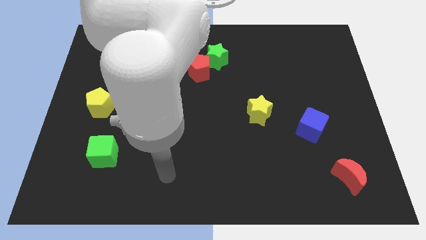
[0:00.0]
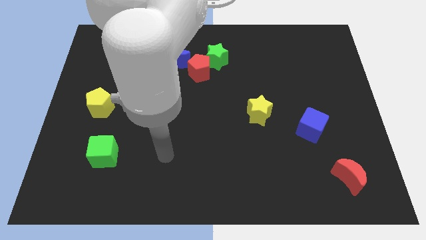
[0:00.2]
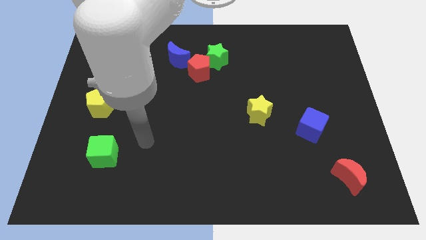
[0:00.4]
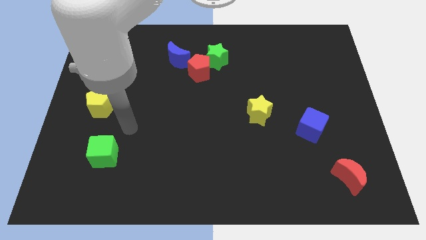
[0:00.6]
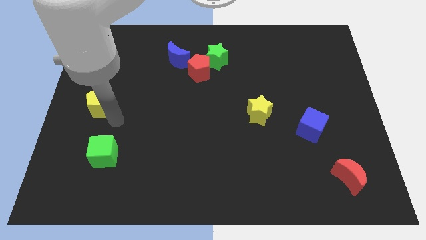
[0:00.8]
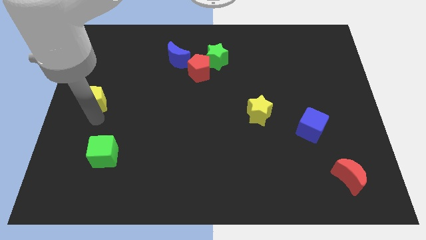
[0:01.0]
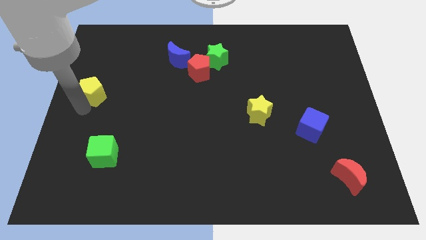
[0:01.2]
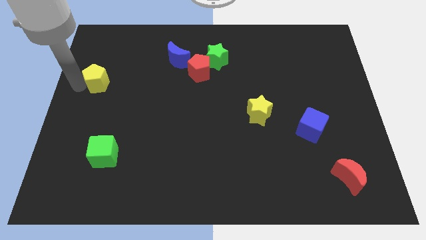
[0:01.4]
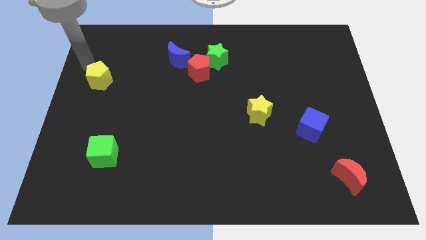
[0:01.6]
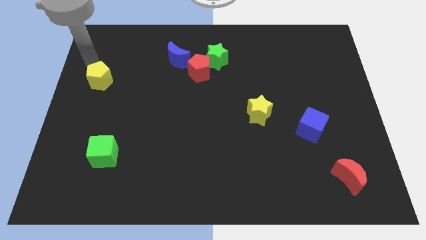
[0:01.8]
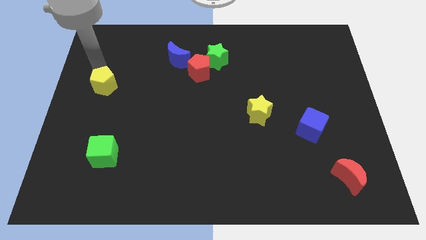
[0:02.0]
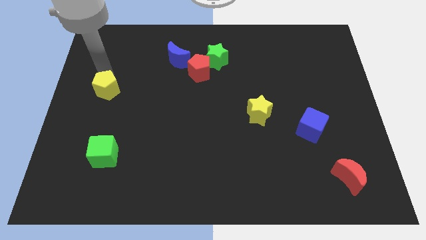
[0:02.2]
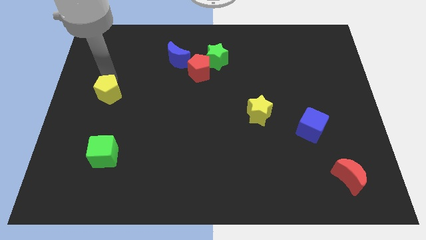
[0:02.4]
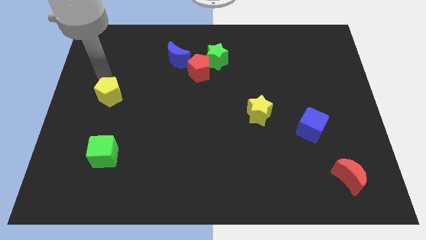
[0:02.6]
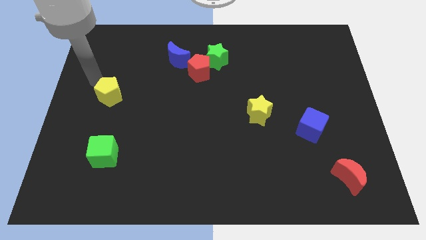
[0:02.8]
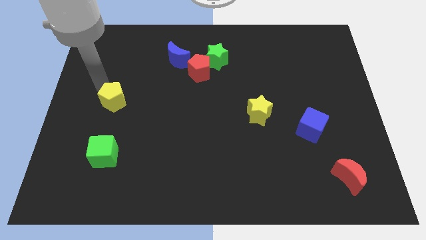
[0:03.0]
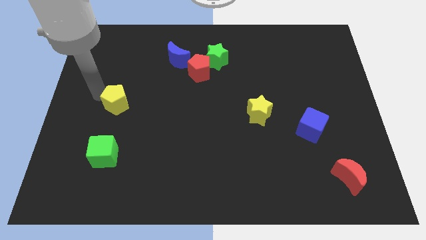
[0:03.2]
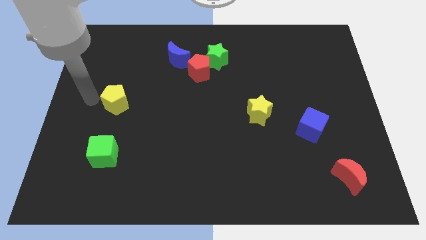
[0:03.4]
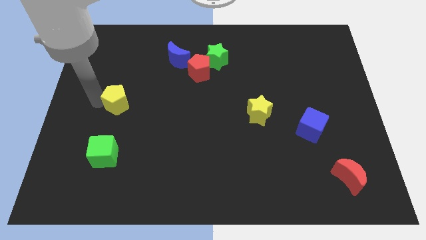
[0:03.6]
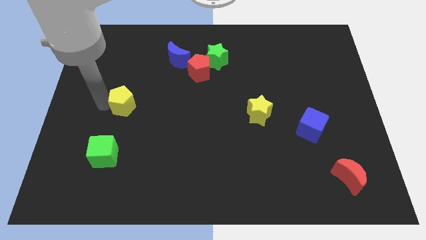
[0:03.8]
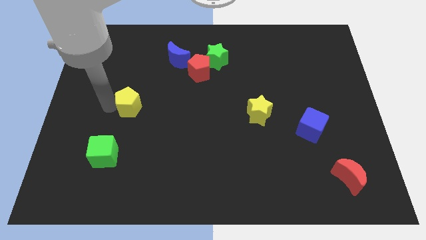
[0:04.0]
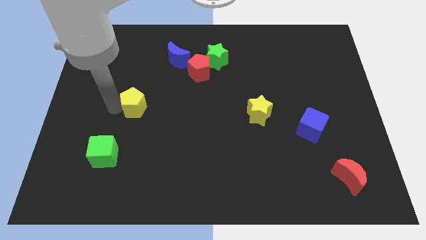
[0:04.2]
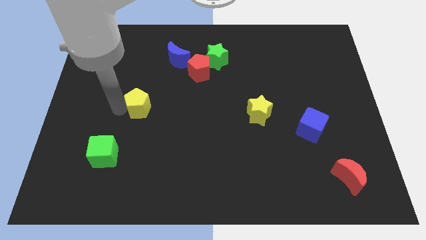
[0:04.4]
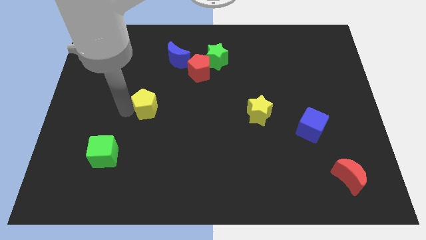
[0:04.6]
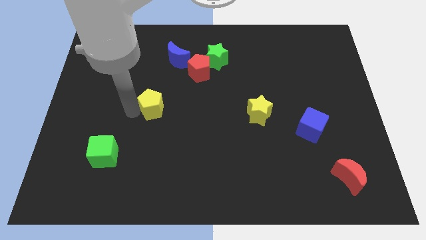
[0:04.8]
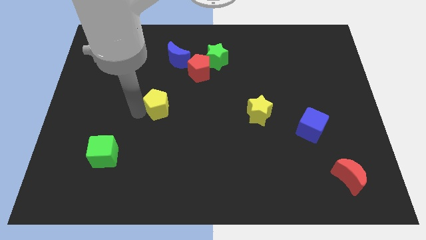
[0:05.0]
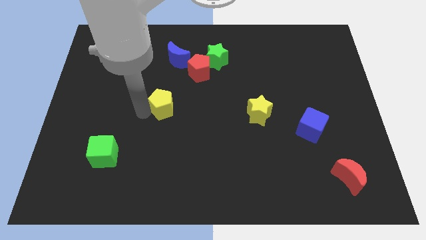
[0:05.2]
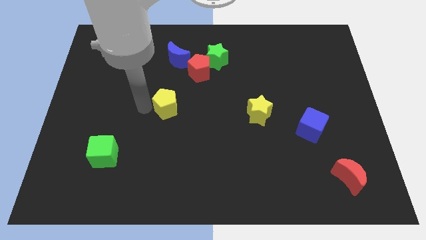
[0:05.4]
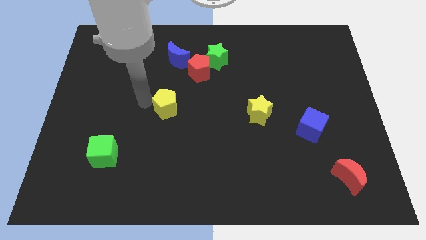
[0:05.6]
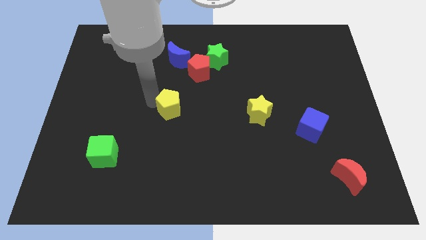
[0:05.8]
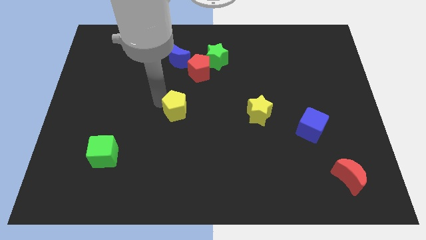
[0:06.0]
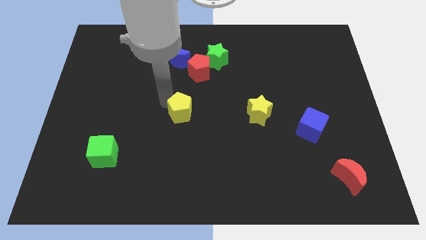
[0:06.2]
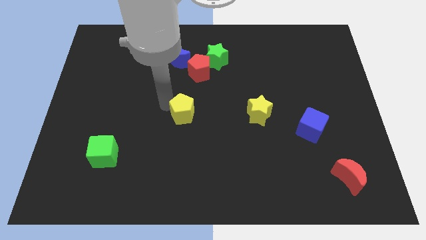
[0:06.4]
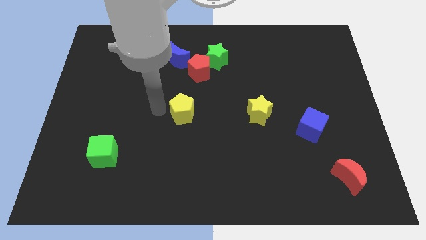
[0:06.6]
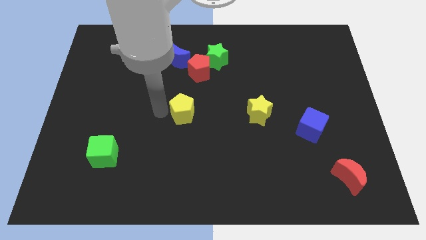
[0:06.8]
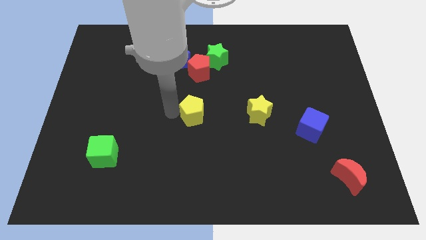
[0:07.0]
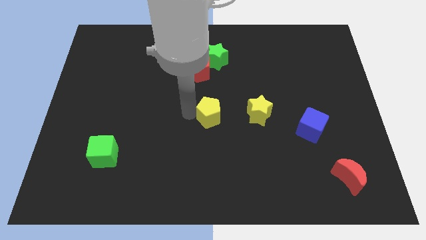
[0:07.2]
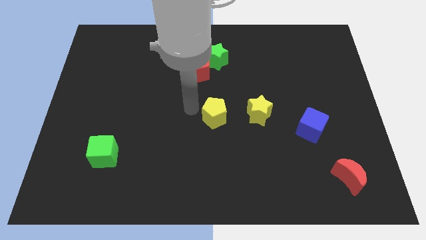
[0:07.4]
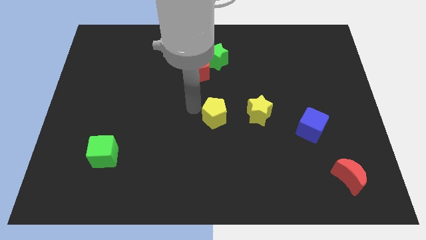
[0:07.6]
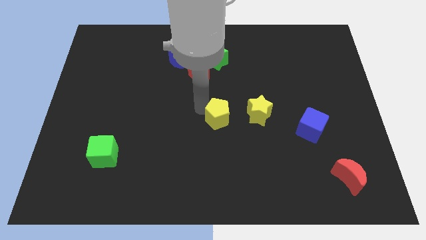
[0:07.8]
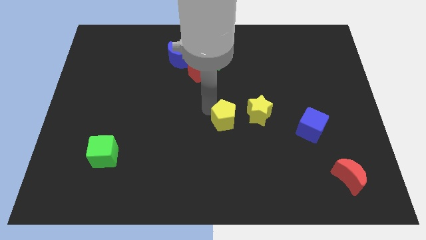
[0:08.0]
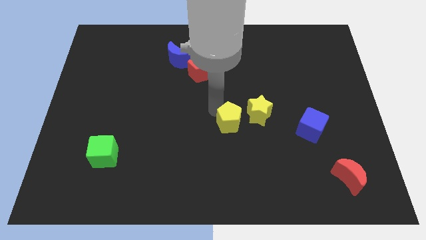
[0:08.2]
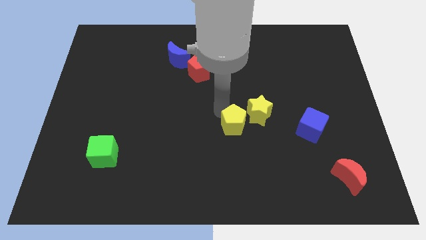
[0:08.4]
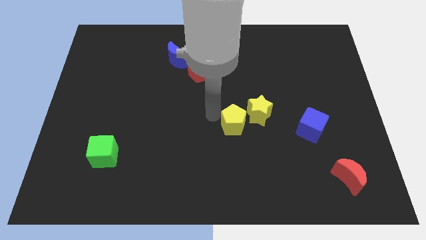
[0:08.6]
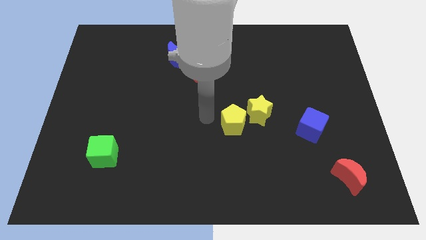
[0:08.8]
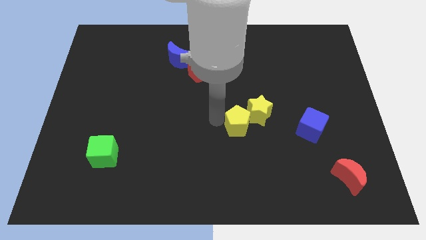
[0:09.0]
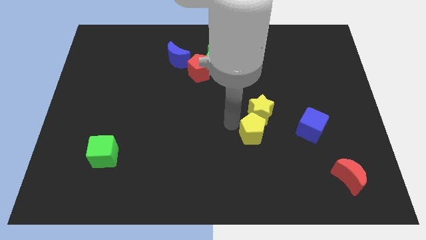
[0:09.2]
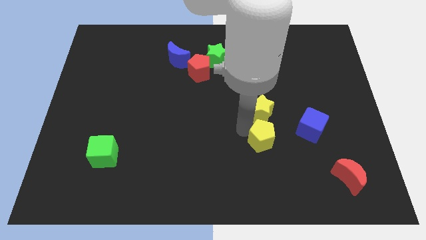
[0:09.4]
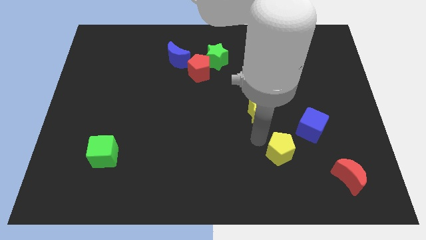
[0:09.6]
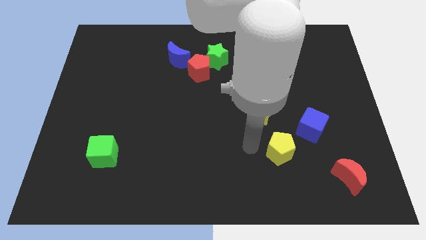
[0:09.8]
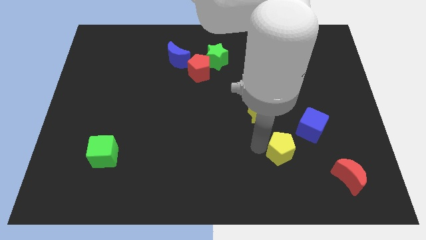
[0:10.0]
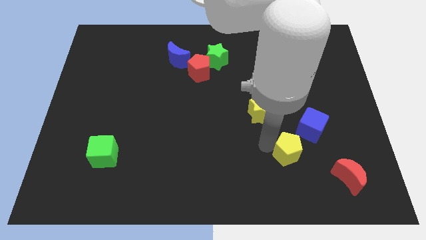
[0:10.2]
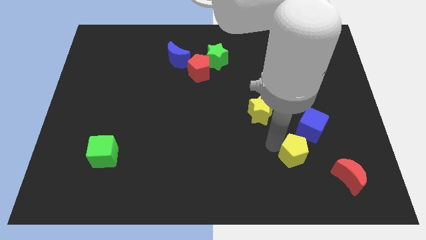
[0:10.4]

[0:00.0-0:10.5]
push the yellow pentagon to the top left of the red moon

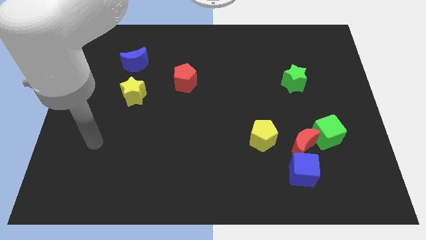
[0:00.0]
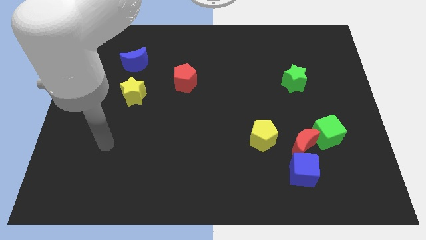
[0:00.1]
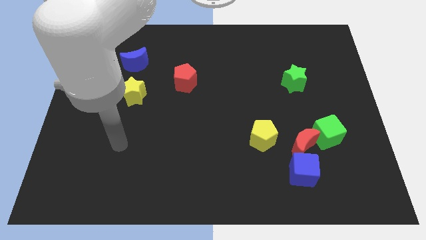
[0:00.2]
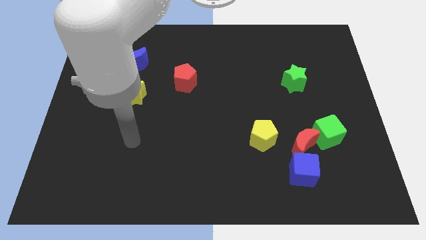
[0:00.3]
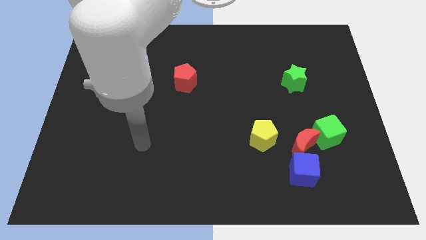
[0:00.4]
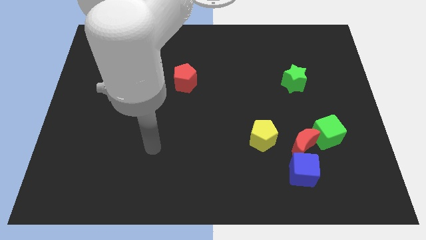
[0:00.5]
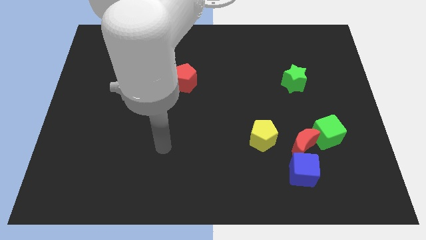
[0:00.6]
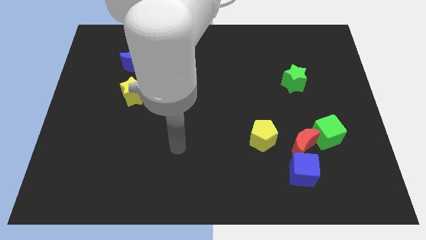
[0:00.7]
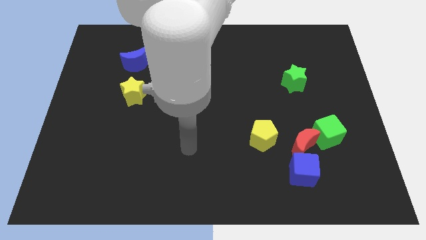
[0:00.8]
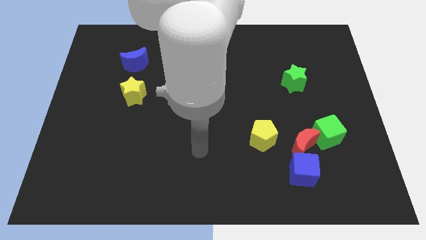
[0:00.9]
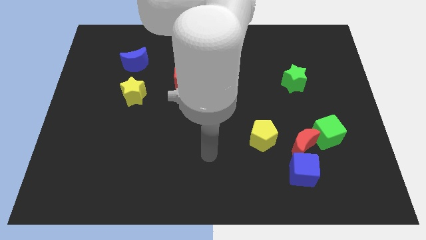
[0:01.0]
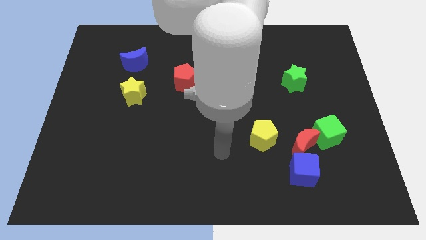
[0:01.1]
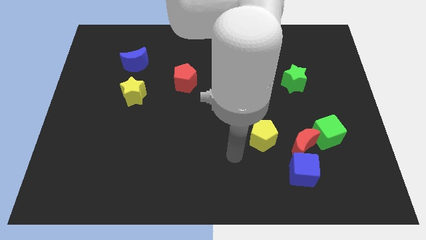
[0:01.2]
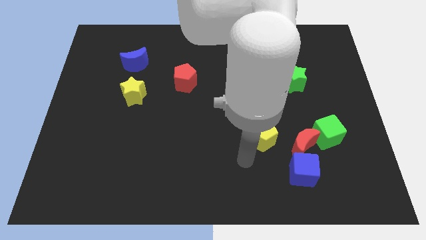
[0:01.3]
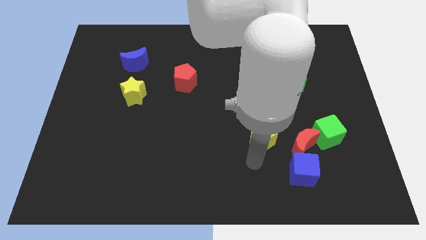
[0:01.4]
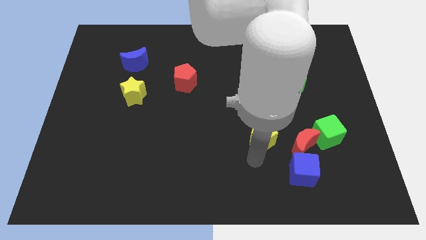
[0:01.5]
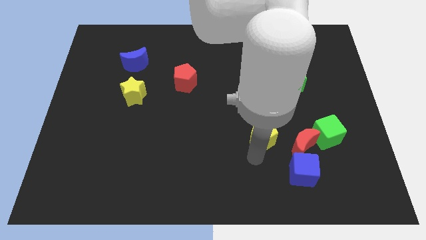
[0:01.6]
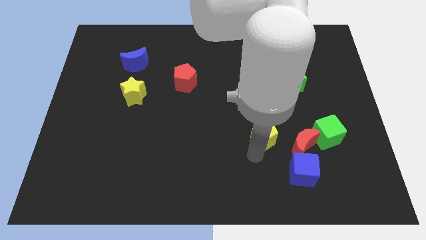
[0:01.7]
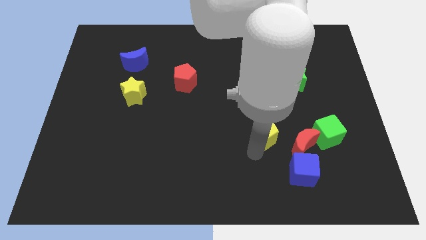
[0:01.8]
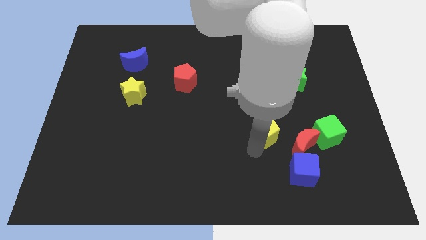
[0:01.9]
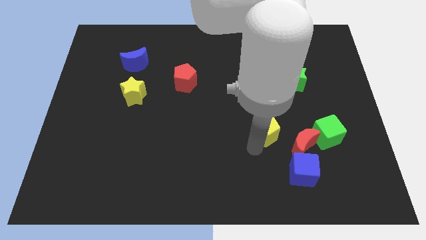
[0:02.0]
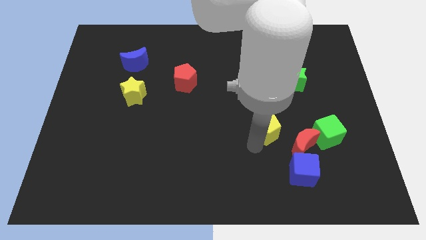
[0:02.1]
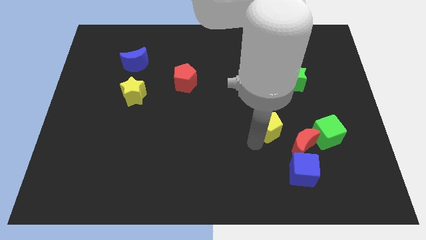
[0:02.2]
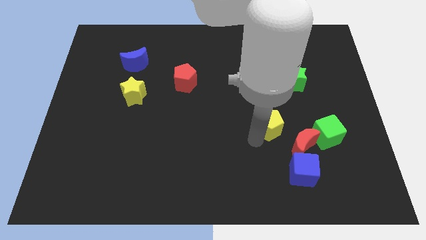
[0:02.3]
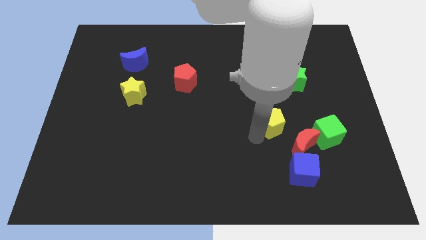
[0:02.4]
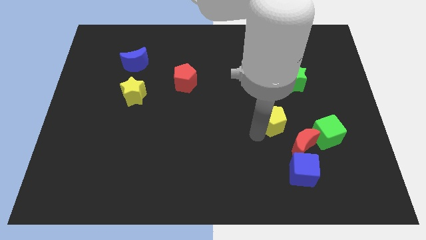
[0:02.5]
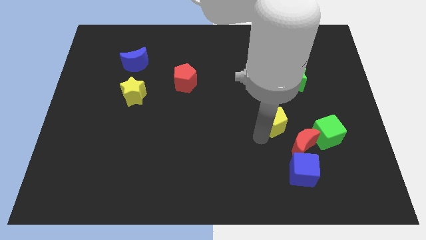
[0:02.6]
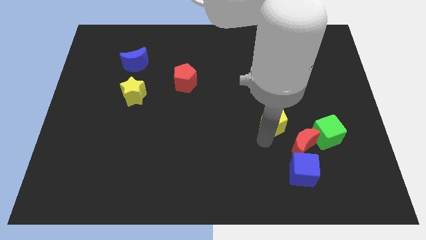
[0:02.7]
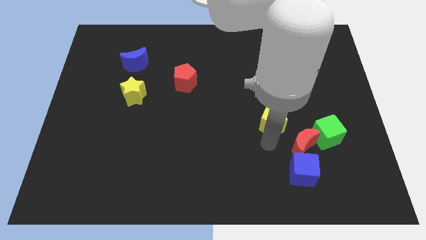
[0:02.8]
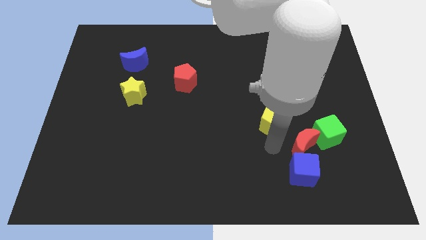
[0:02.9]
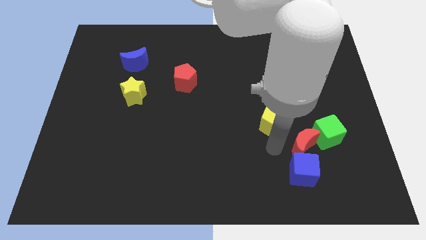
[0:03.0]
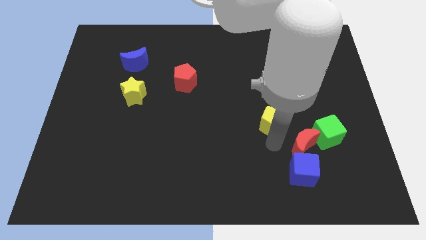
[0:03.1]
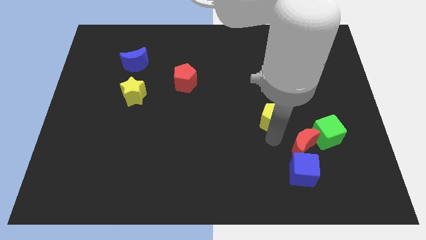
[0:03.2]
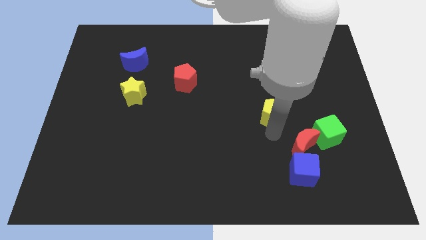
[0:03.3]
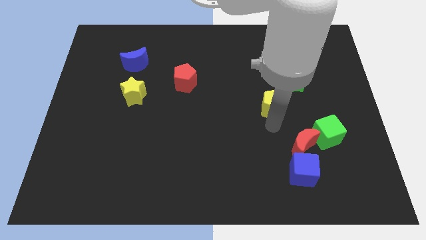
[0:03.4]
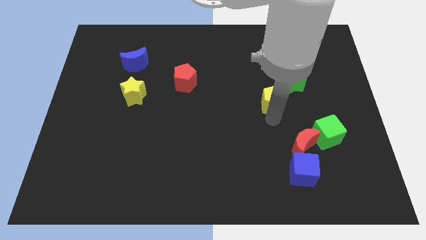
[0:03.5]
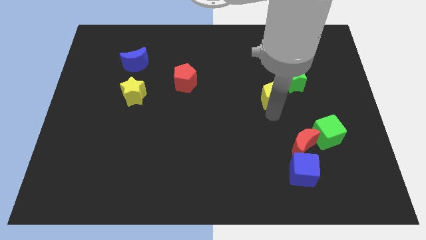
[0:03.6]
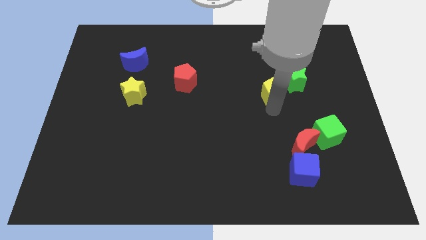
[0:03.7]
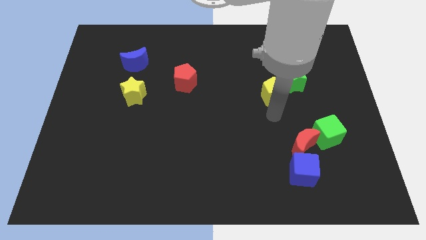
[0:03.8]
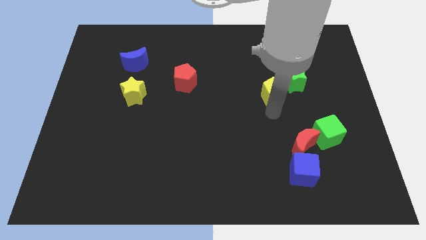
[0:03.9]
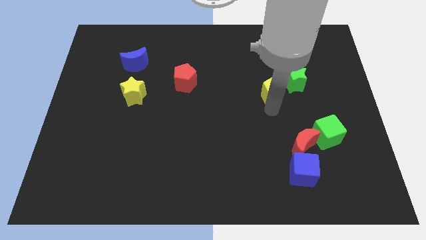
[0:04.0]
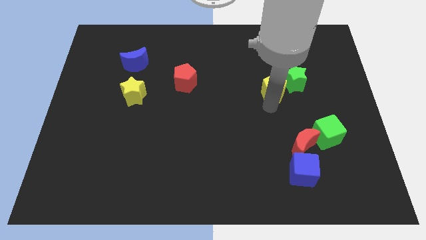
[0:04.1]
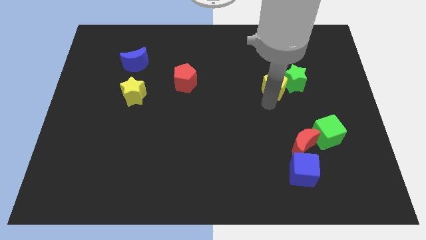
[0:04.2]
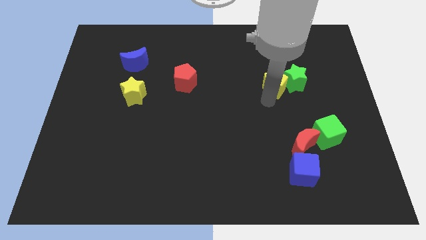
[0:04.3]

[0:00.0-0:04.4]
slide the yellow pentagon diagonally up and to the left of the green star
